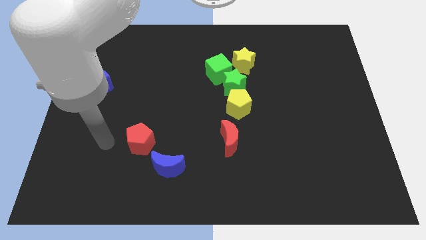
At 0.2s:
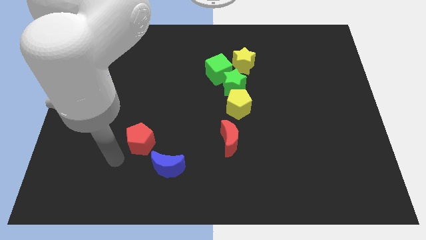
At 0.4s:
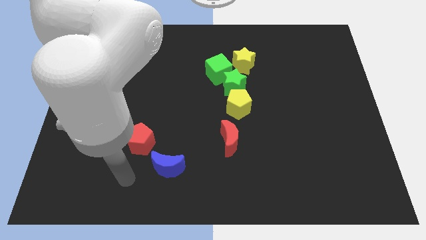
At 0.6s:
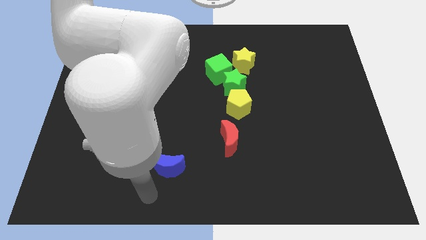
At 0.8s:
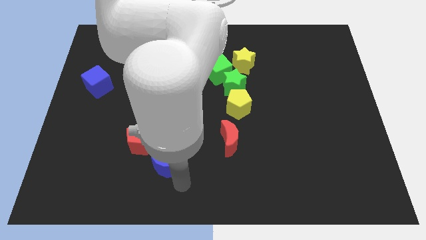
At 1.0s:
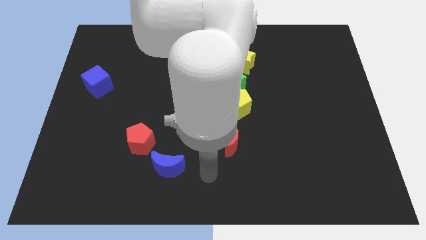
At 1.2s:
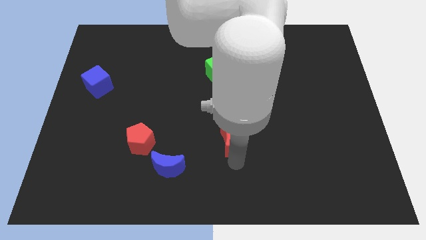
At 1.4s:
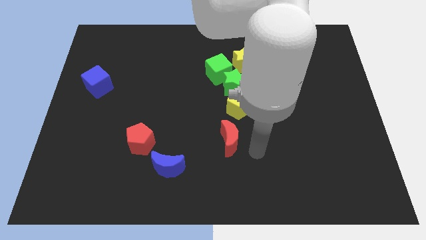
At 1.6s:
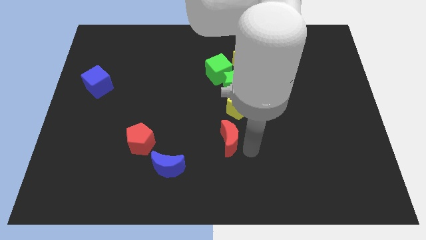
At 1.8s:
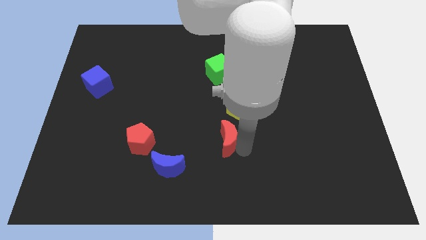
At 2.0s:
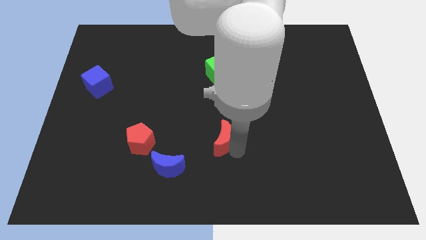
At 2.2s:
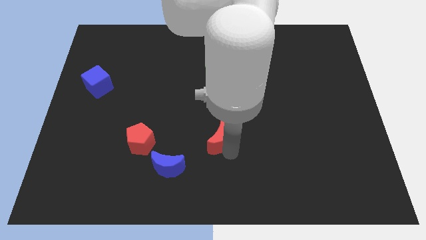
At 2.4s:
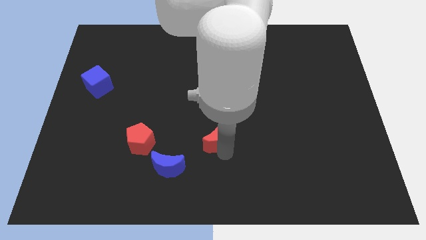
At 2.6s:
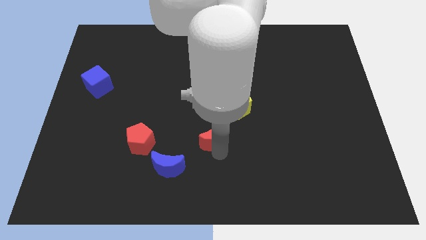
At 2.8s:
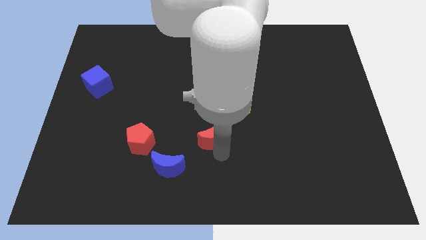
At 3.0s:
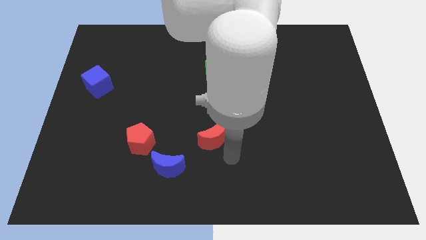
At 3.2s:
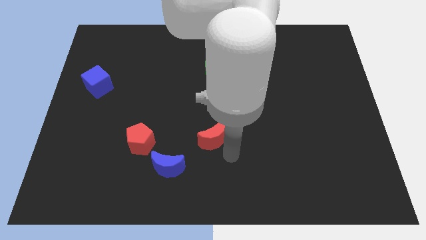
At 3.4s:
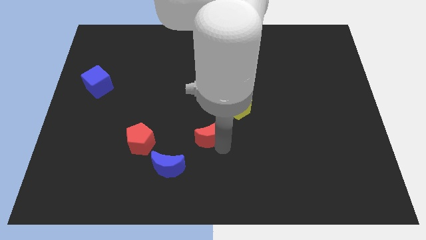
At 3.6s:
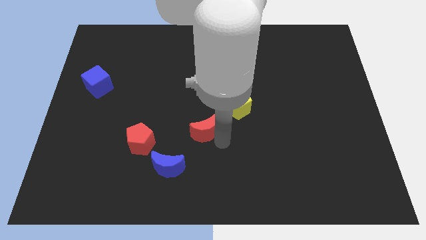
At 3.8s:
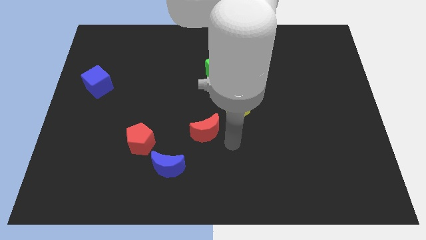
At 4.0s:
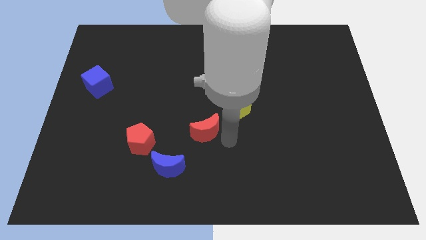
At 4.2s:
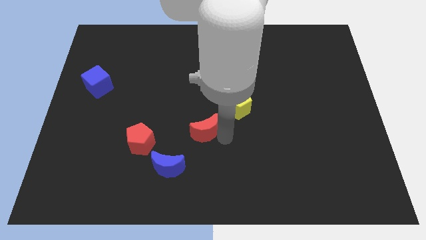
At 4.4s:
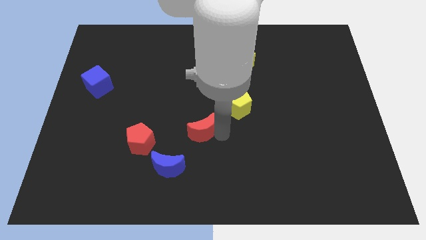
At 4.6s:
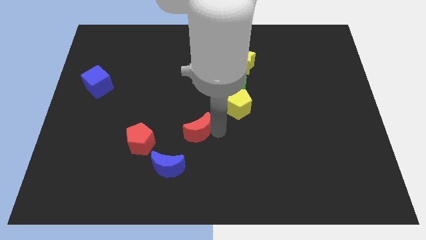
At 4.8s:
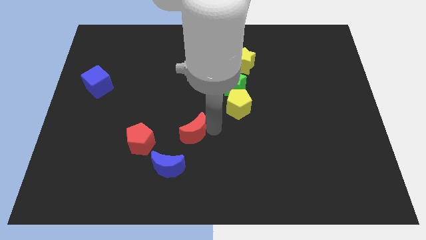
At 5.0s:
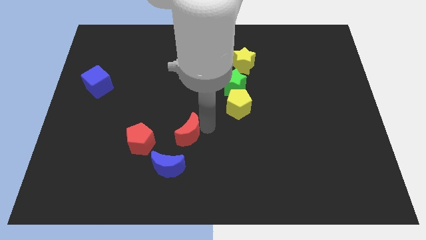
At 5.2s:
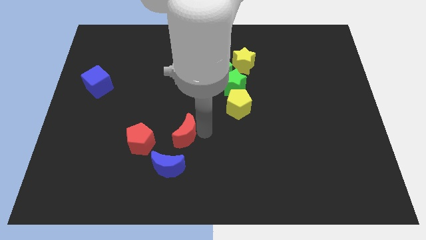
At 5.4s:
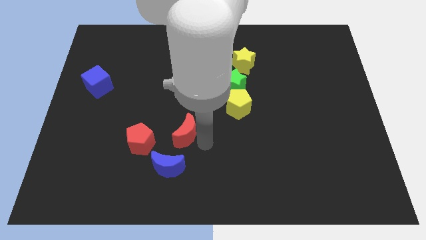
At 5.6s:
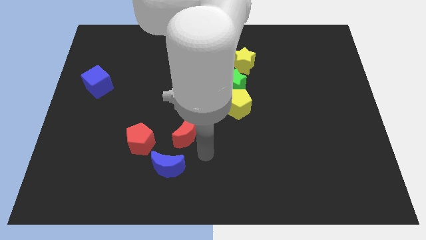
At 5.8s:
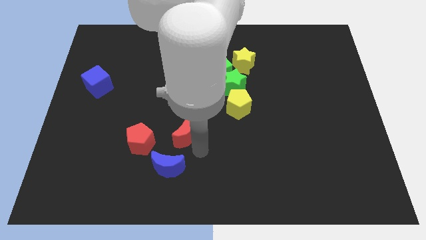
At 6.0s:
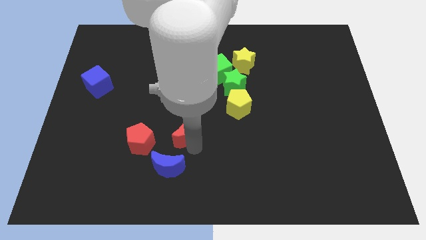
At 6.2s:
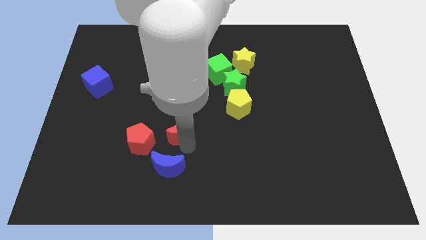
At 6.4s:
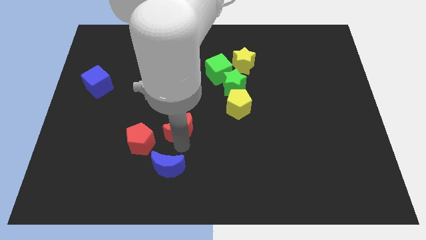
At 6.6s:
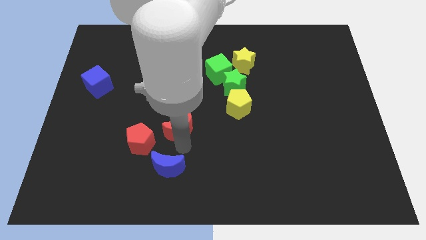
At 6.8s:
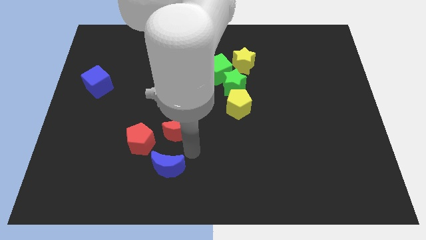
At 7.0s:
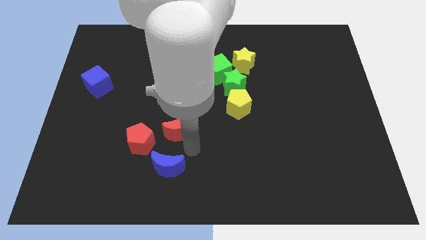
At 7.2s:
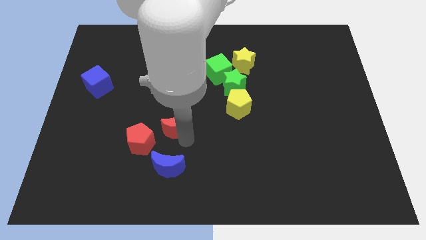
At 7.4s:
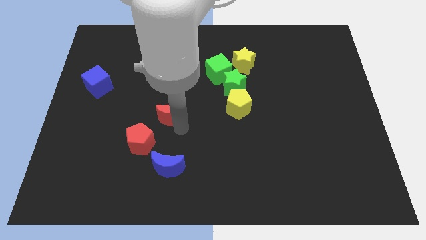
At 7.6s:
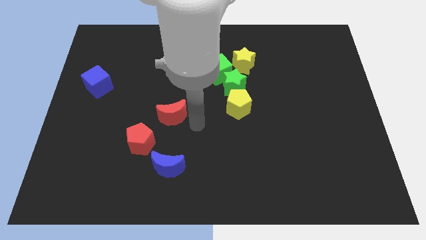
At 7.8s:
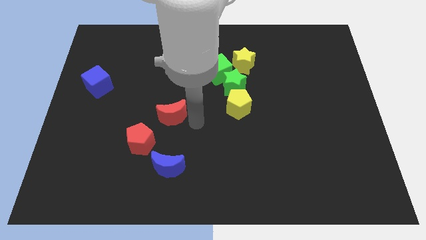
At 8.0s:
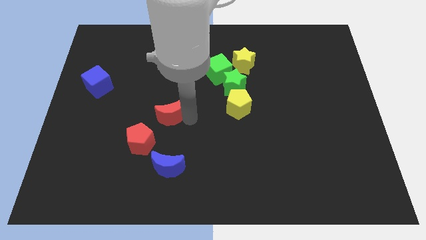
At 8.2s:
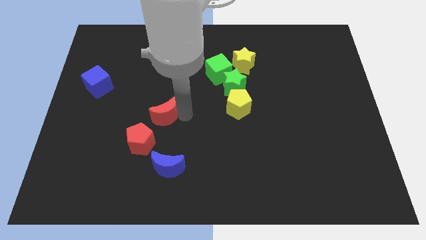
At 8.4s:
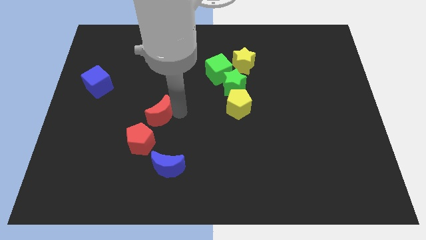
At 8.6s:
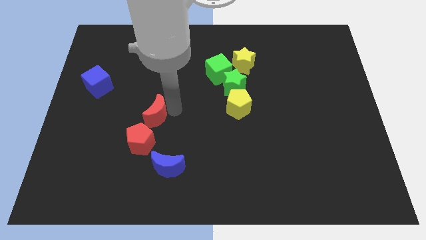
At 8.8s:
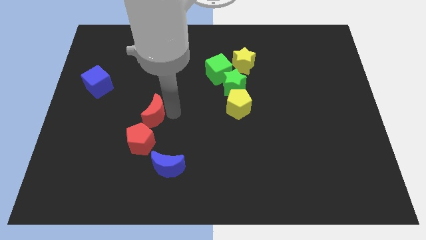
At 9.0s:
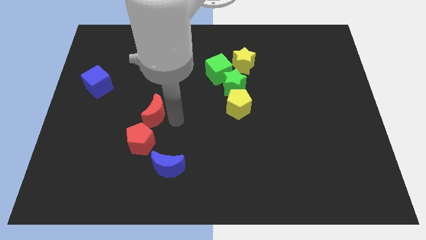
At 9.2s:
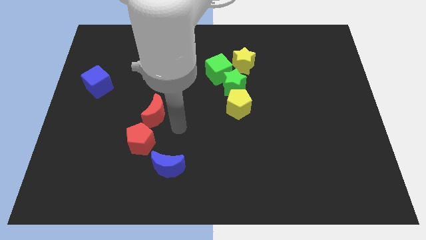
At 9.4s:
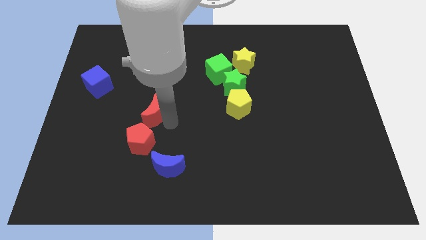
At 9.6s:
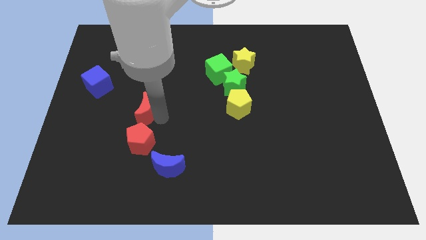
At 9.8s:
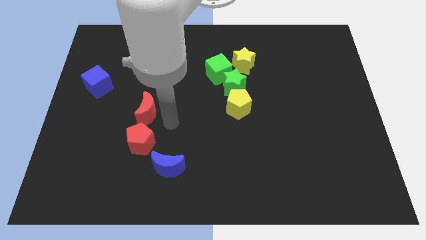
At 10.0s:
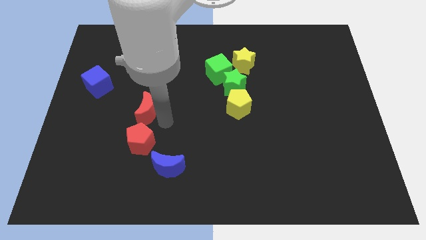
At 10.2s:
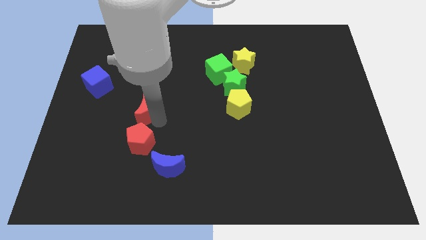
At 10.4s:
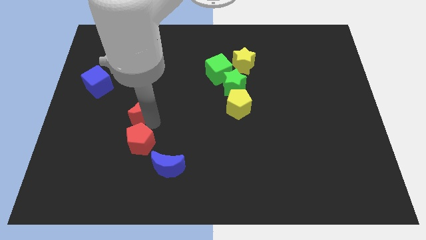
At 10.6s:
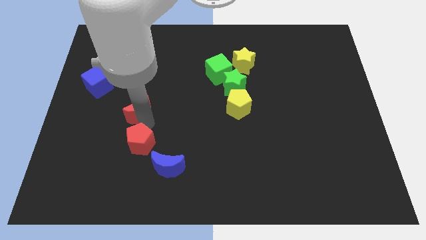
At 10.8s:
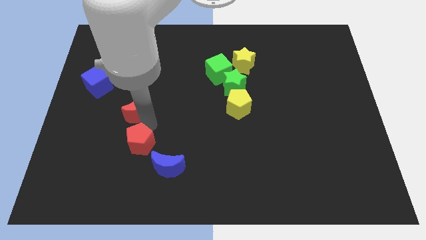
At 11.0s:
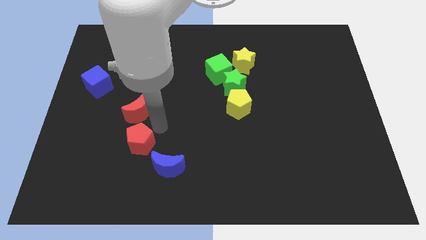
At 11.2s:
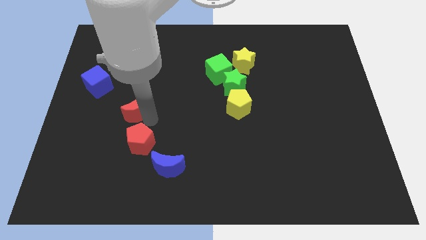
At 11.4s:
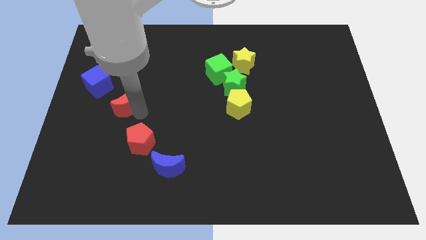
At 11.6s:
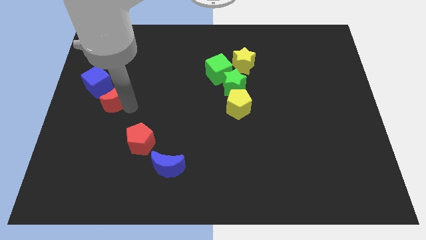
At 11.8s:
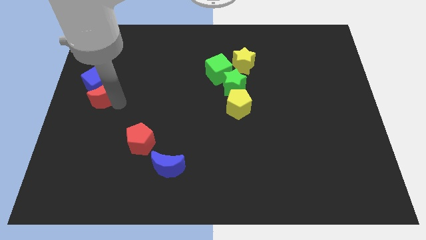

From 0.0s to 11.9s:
push the red moon next to the blue cube

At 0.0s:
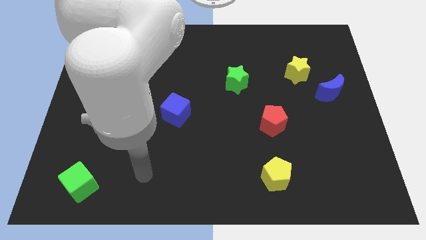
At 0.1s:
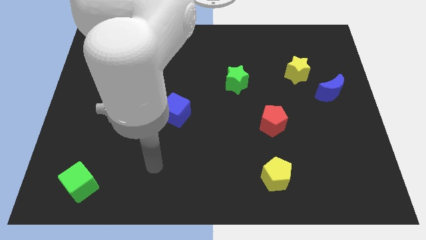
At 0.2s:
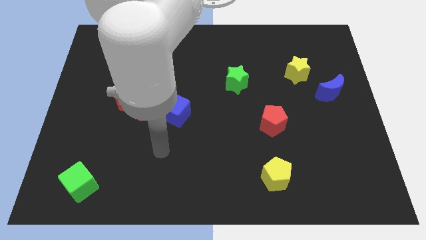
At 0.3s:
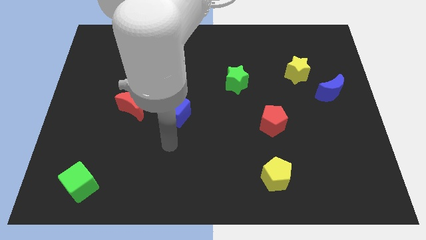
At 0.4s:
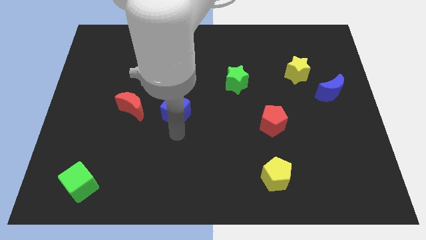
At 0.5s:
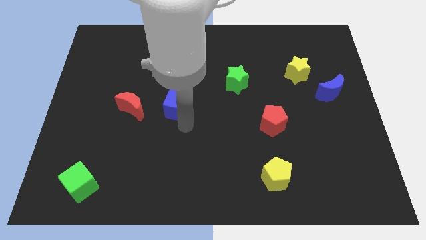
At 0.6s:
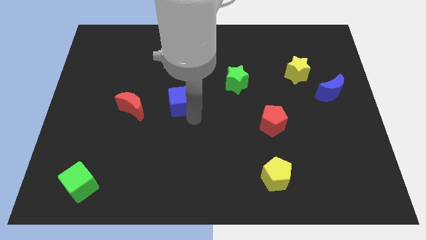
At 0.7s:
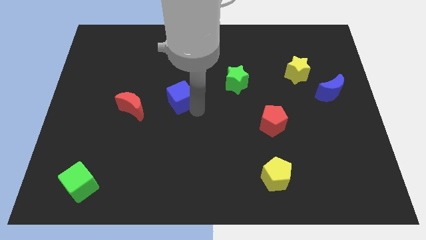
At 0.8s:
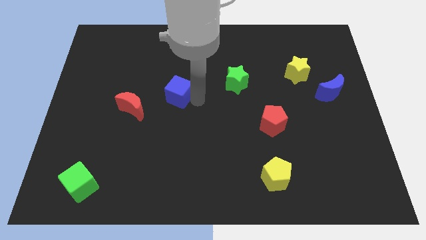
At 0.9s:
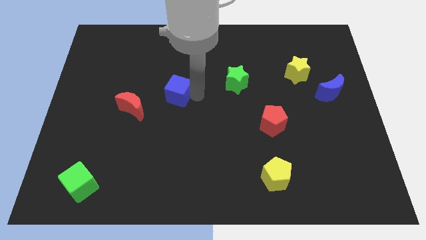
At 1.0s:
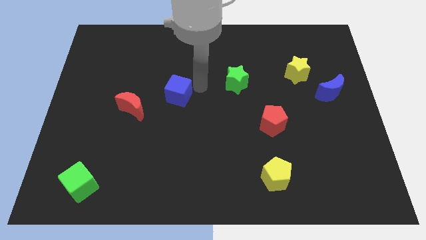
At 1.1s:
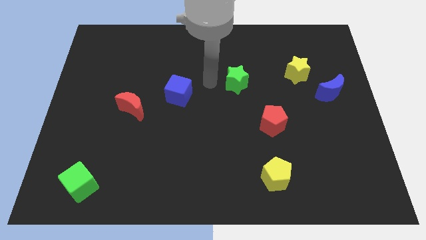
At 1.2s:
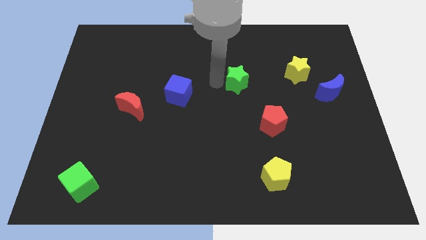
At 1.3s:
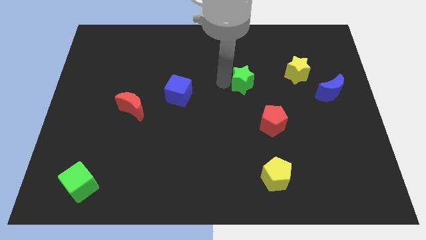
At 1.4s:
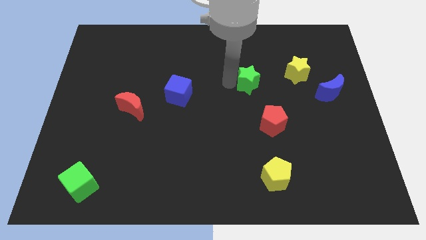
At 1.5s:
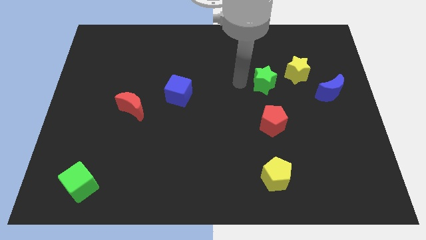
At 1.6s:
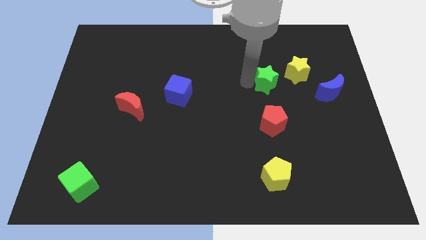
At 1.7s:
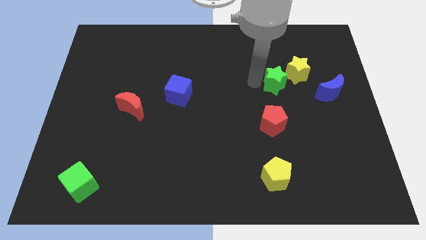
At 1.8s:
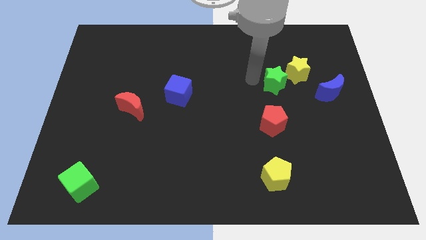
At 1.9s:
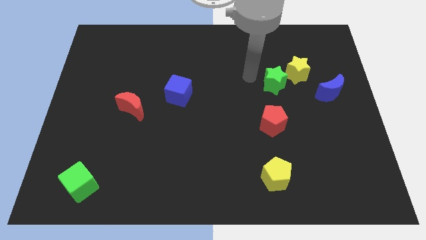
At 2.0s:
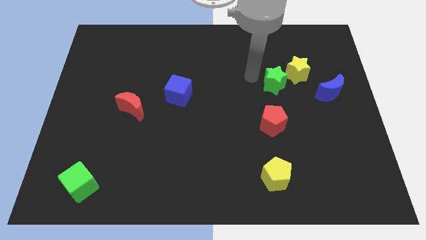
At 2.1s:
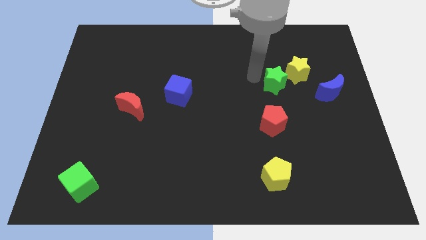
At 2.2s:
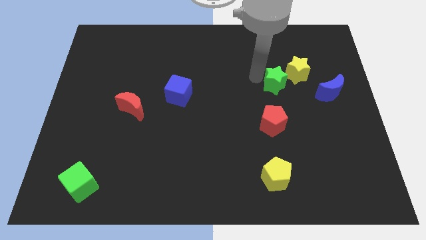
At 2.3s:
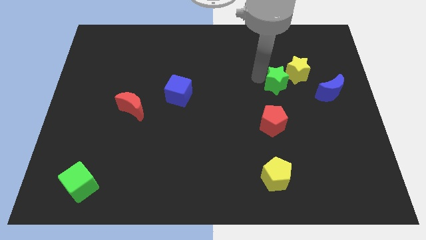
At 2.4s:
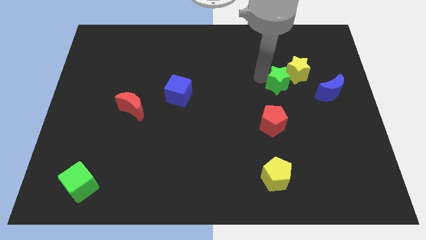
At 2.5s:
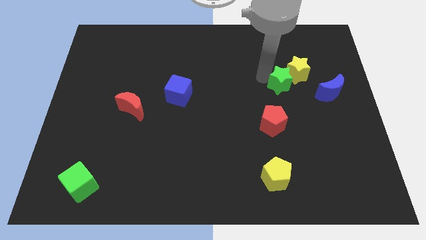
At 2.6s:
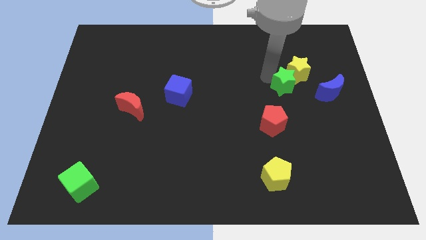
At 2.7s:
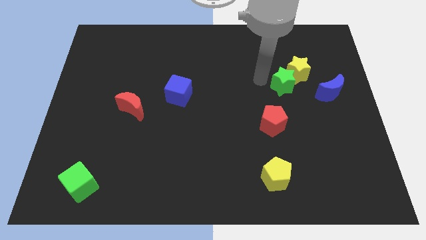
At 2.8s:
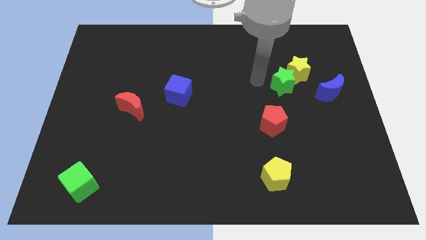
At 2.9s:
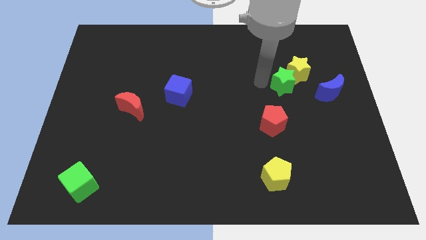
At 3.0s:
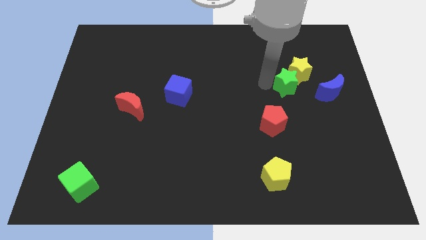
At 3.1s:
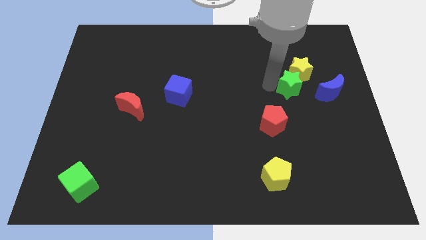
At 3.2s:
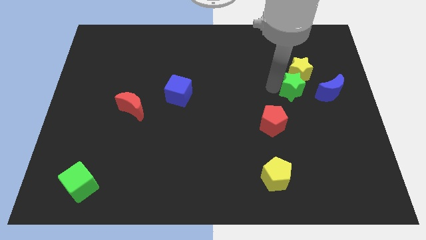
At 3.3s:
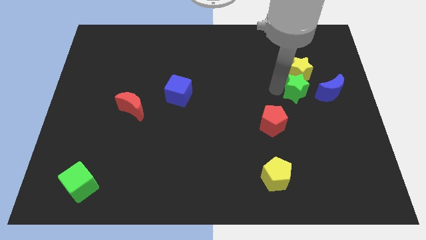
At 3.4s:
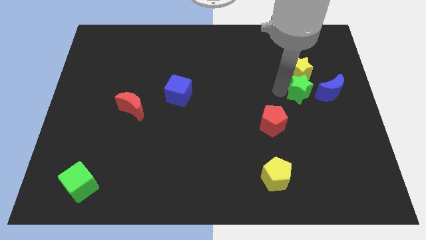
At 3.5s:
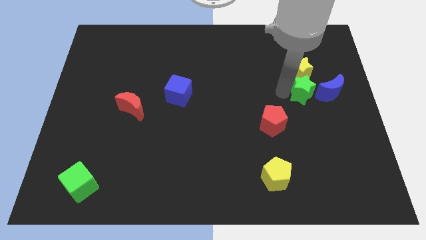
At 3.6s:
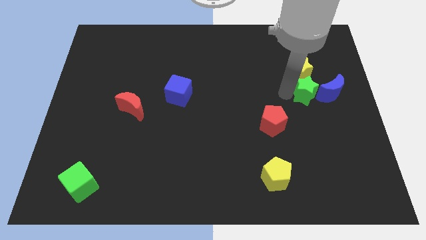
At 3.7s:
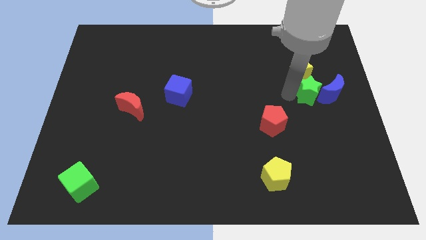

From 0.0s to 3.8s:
push the green star close to the blue moon
